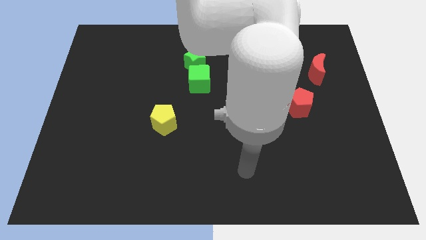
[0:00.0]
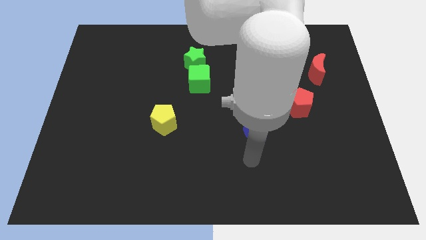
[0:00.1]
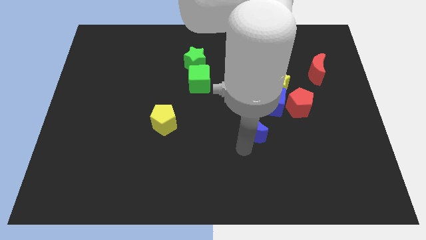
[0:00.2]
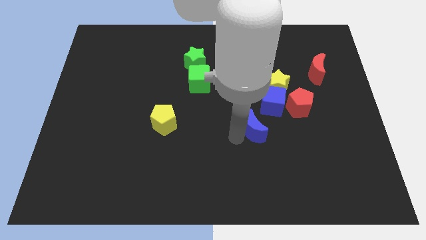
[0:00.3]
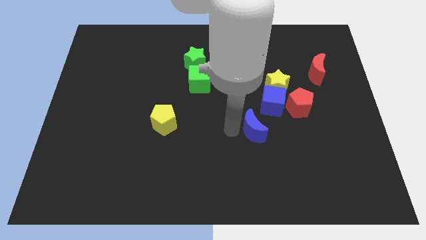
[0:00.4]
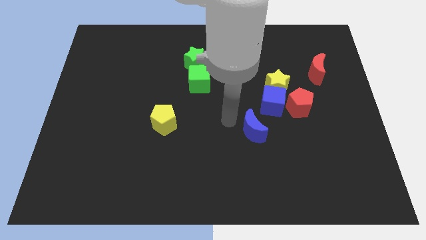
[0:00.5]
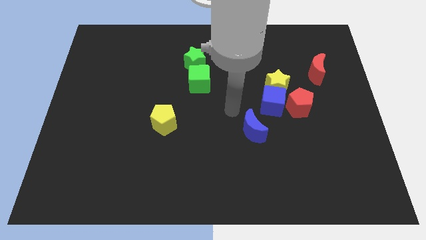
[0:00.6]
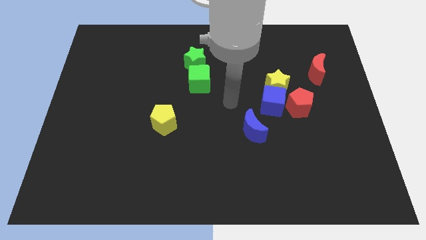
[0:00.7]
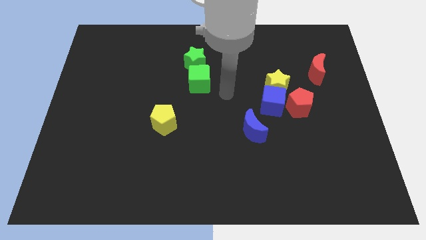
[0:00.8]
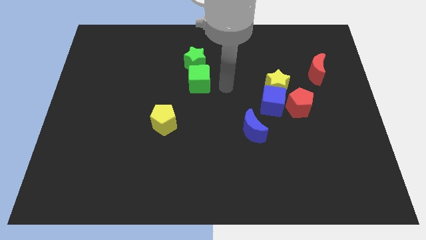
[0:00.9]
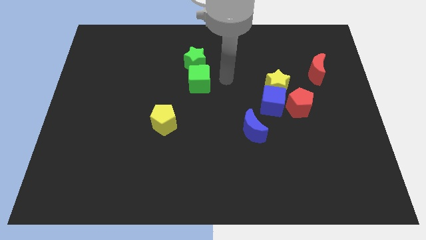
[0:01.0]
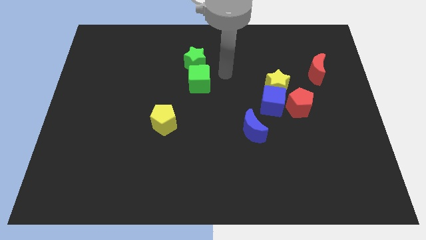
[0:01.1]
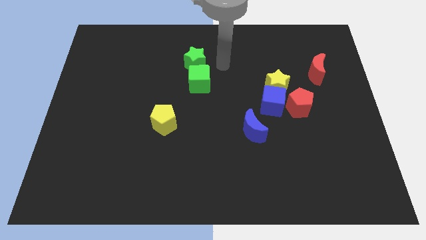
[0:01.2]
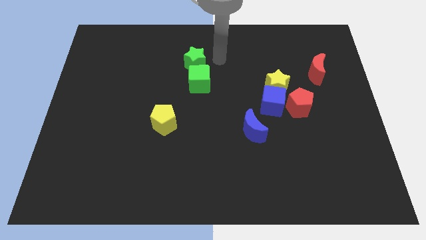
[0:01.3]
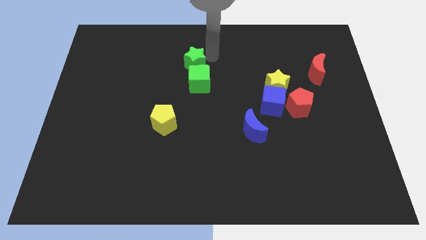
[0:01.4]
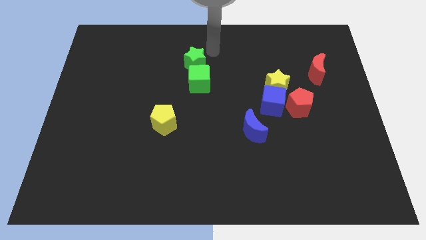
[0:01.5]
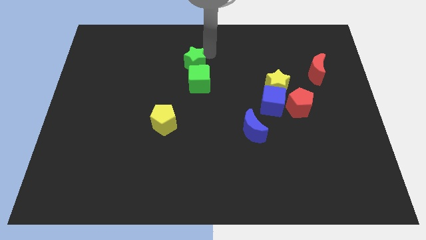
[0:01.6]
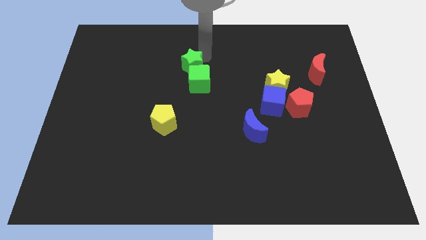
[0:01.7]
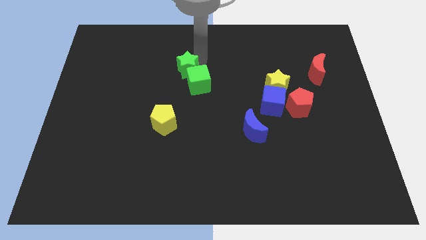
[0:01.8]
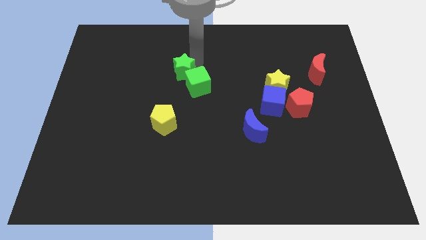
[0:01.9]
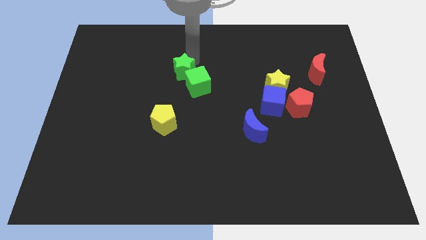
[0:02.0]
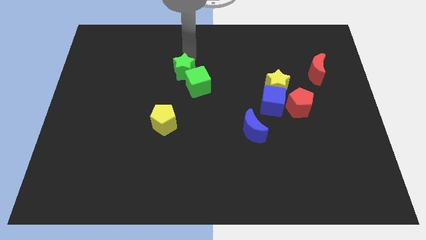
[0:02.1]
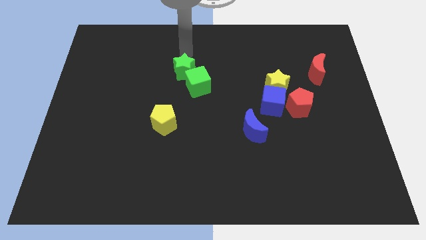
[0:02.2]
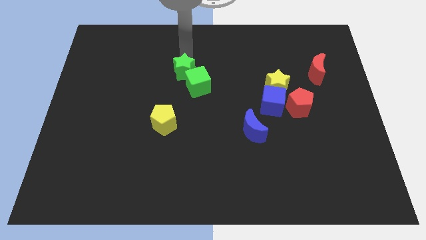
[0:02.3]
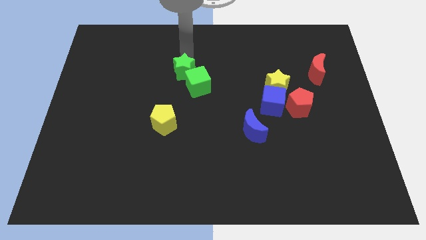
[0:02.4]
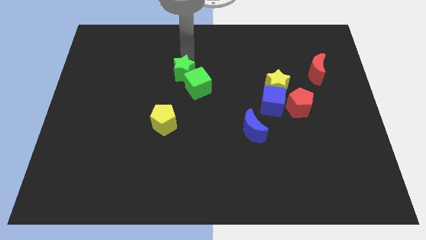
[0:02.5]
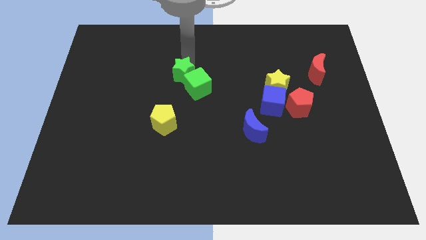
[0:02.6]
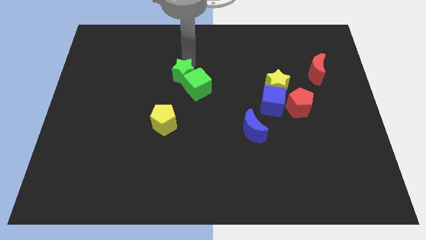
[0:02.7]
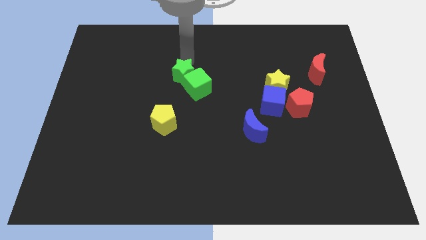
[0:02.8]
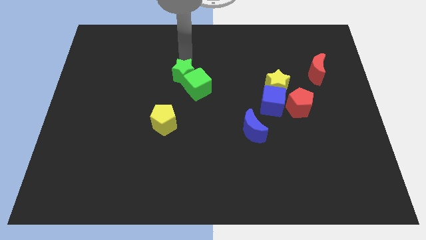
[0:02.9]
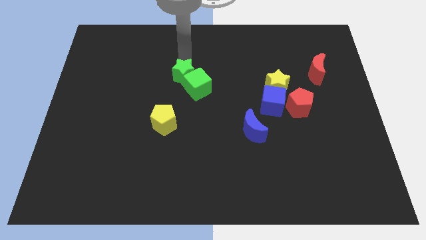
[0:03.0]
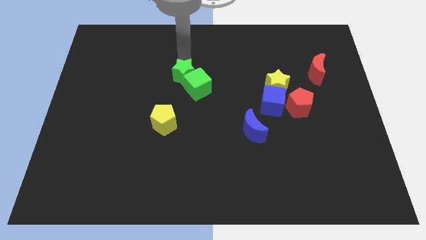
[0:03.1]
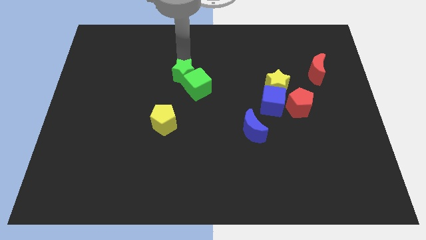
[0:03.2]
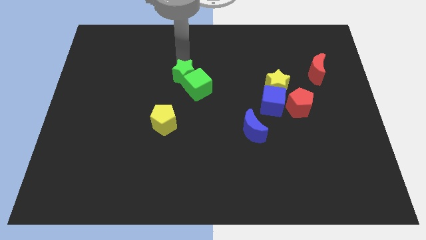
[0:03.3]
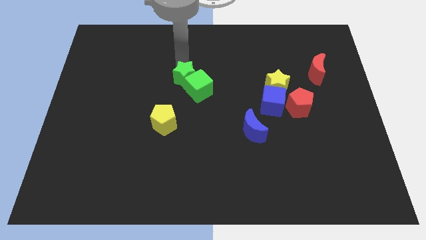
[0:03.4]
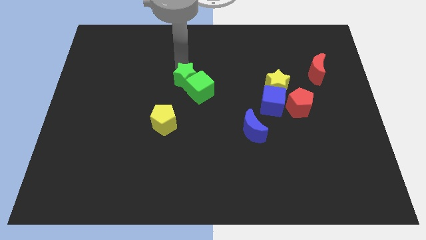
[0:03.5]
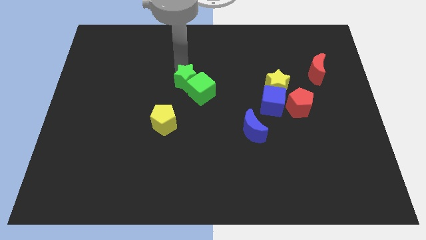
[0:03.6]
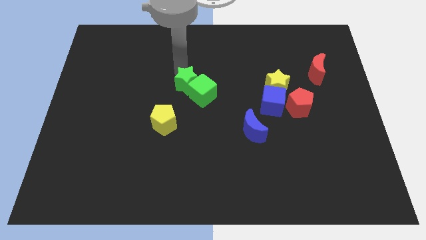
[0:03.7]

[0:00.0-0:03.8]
slightly move the green star down

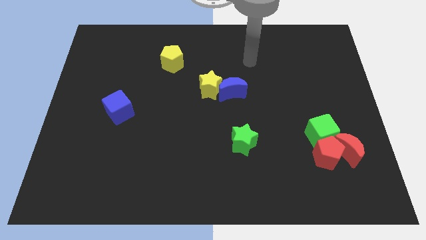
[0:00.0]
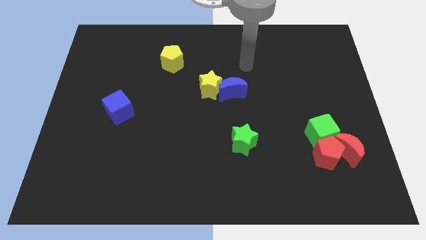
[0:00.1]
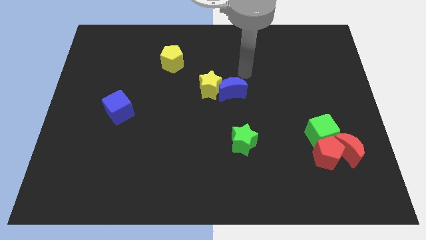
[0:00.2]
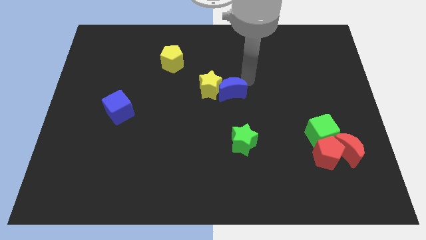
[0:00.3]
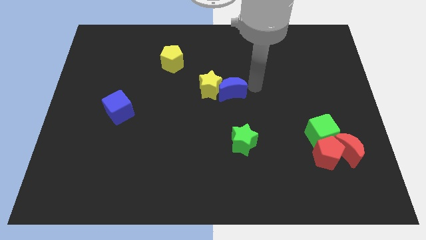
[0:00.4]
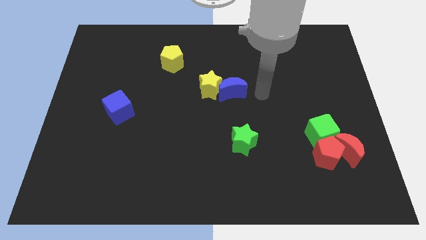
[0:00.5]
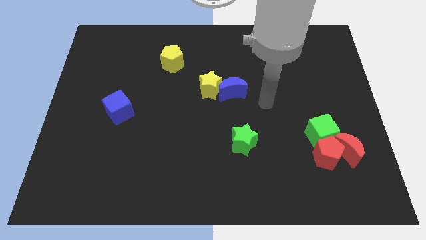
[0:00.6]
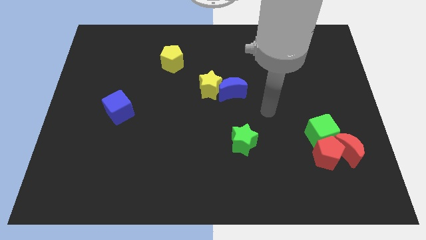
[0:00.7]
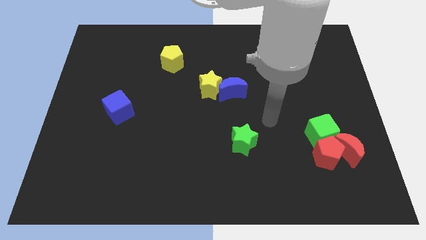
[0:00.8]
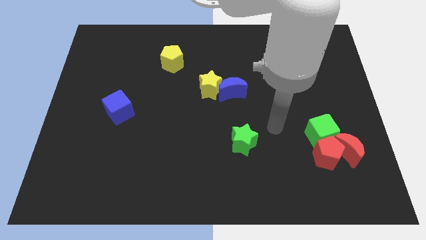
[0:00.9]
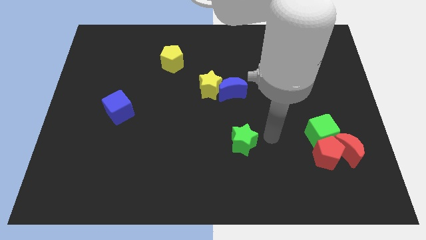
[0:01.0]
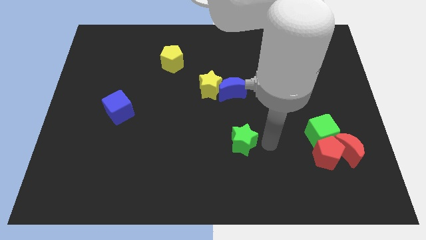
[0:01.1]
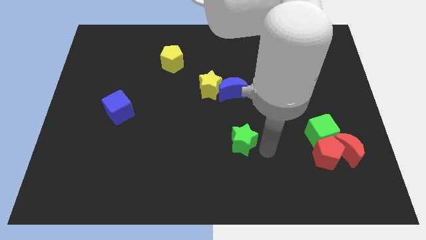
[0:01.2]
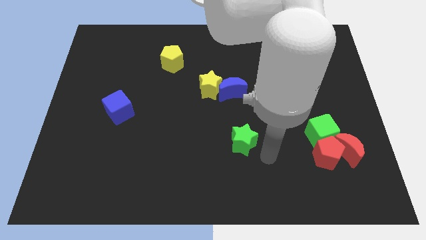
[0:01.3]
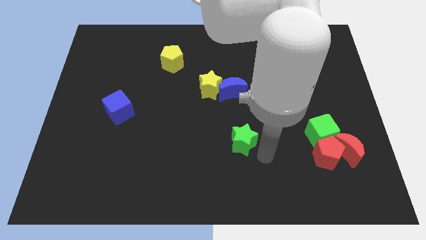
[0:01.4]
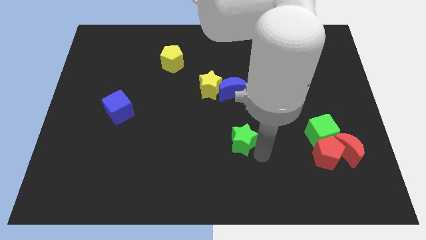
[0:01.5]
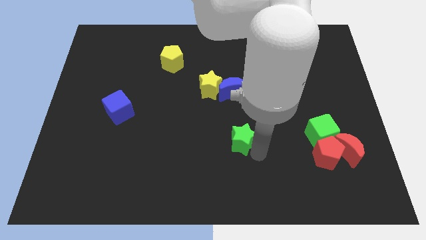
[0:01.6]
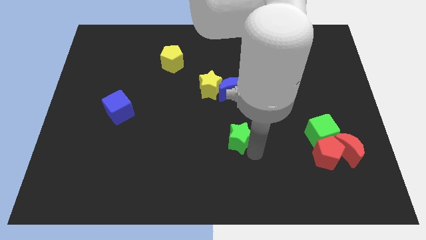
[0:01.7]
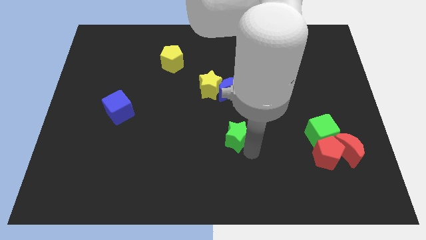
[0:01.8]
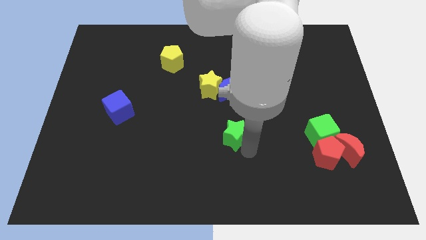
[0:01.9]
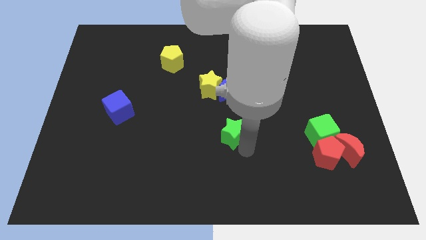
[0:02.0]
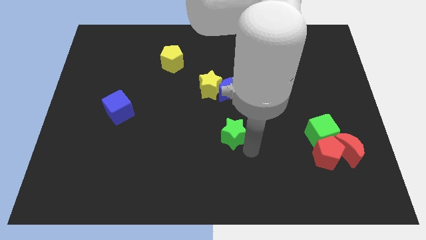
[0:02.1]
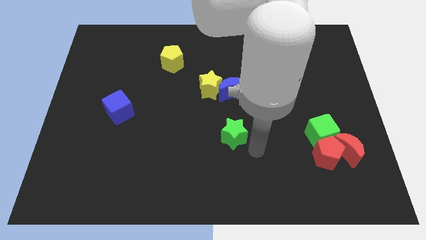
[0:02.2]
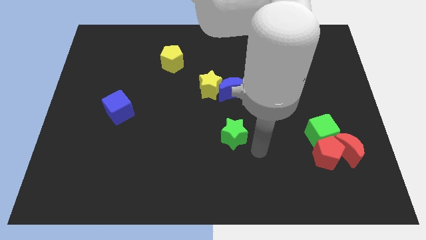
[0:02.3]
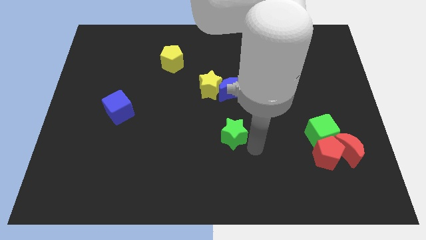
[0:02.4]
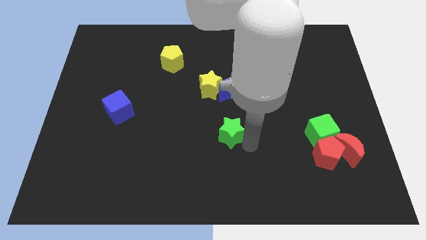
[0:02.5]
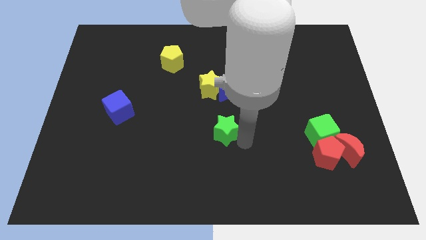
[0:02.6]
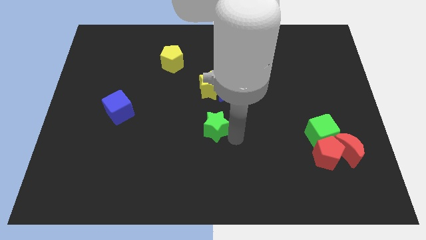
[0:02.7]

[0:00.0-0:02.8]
push the green star a little bit diagonally upwards and to the left

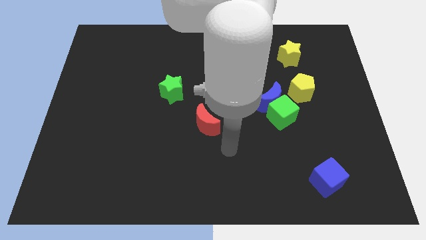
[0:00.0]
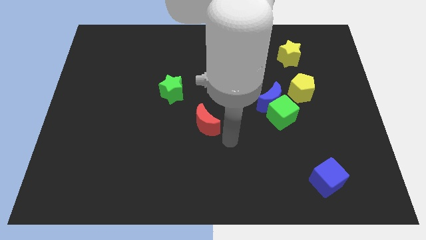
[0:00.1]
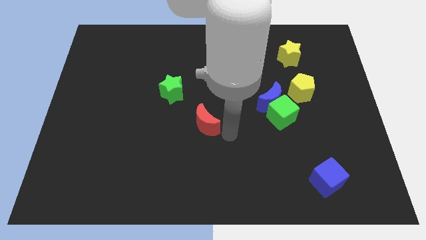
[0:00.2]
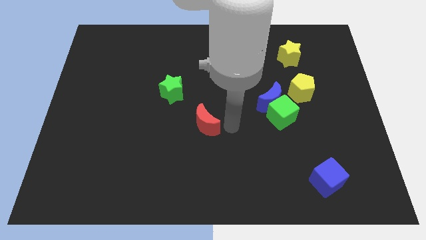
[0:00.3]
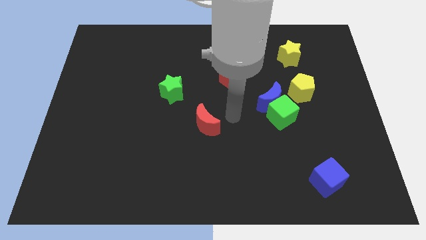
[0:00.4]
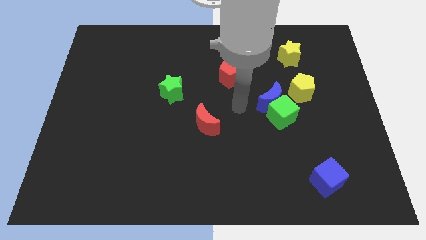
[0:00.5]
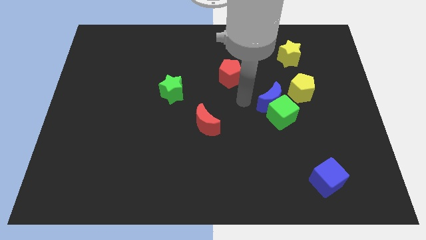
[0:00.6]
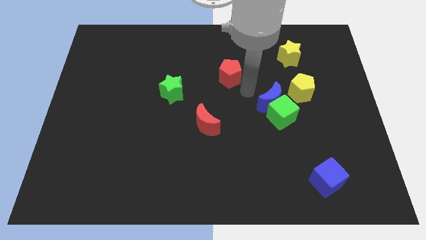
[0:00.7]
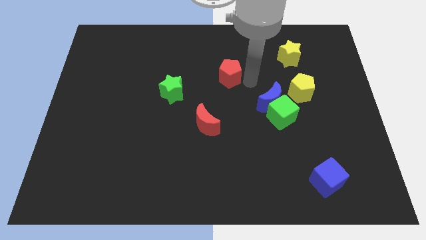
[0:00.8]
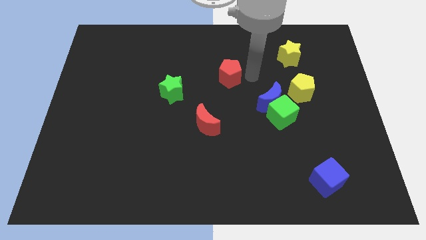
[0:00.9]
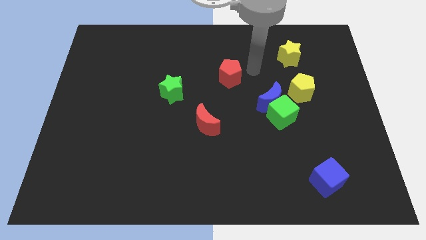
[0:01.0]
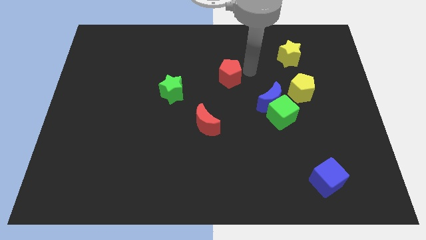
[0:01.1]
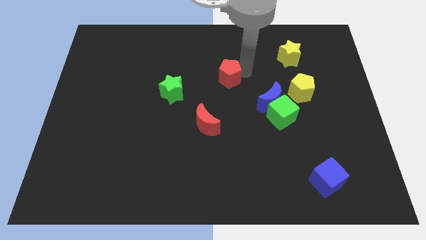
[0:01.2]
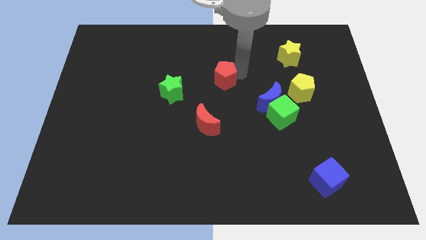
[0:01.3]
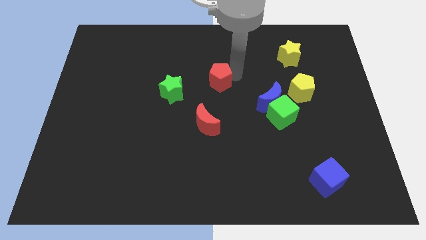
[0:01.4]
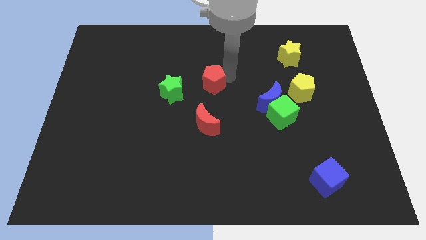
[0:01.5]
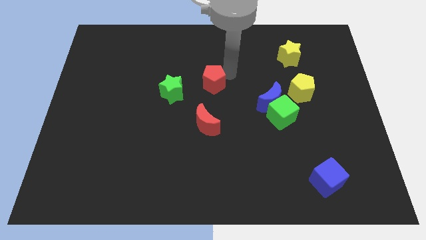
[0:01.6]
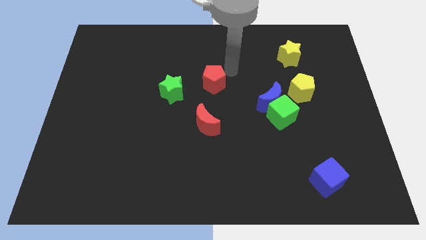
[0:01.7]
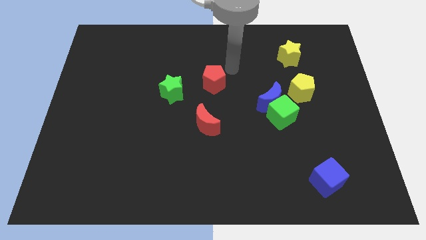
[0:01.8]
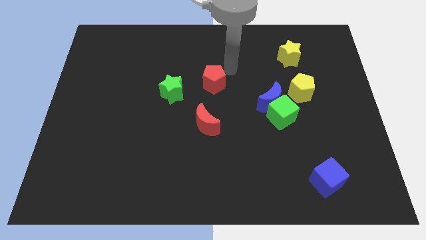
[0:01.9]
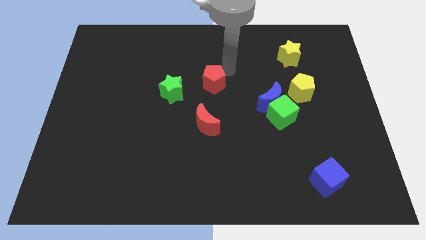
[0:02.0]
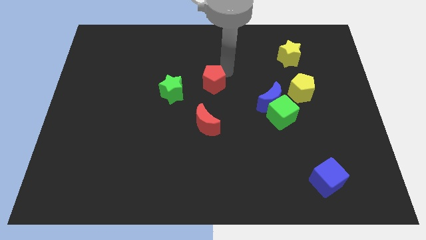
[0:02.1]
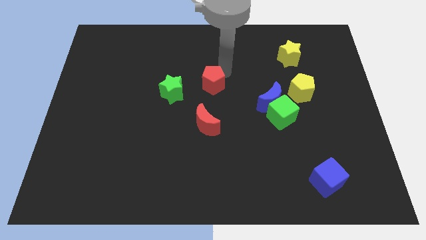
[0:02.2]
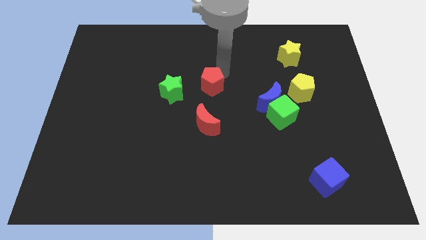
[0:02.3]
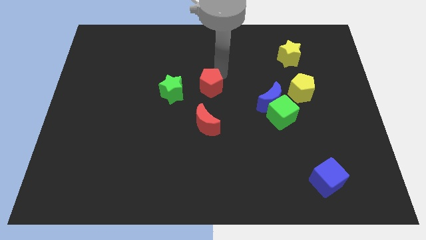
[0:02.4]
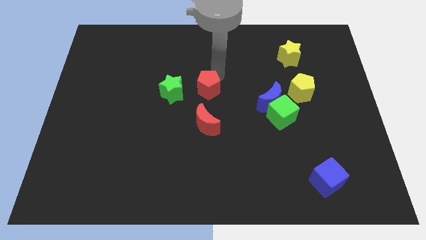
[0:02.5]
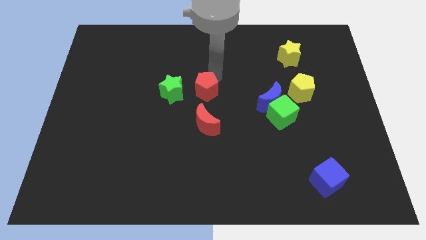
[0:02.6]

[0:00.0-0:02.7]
push the red pentagon a little bit down and then to the left
